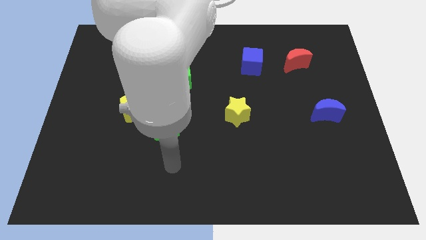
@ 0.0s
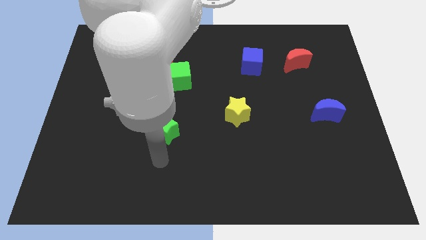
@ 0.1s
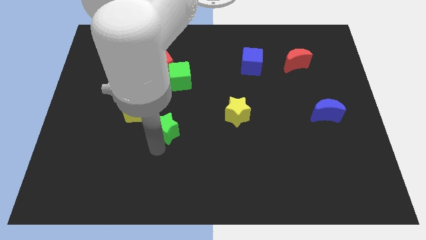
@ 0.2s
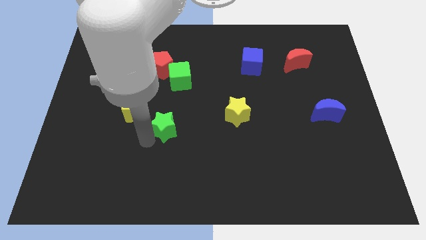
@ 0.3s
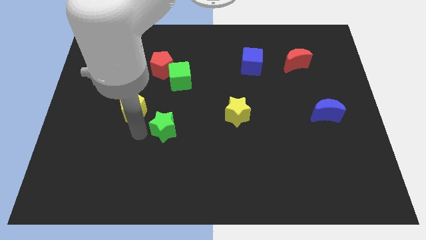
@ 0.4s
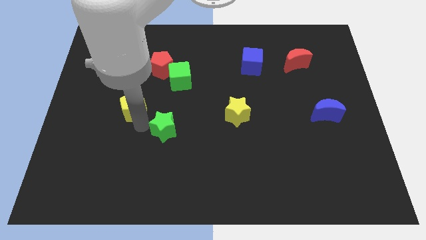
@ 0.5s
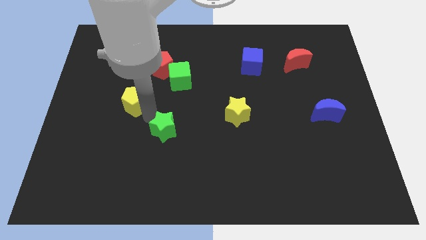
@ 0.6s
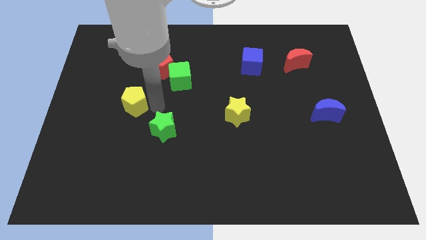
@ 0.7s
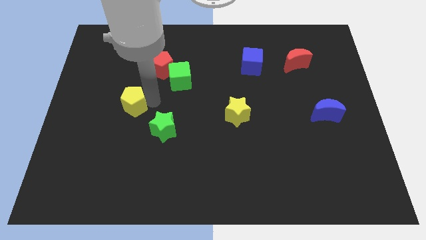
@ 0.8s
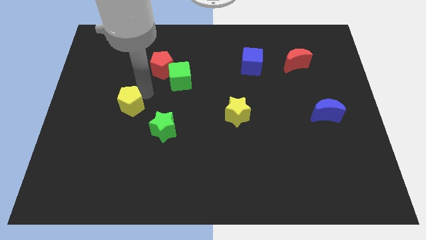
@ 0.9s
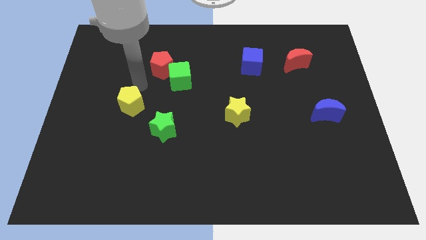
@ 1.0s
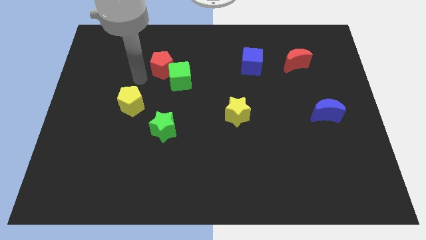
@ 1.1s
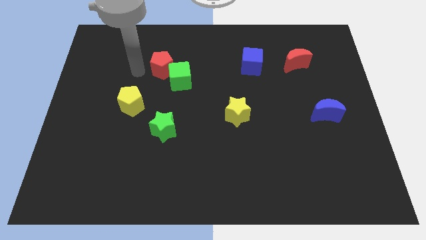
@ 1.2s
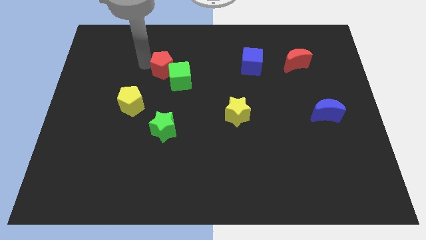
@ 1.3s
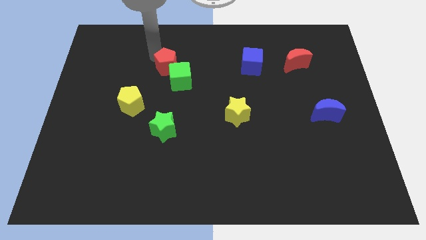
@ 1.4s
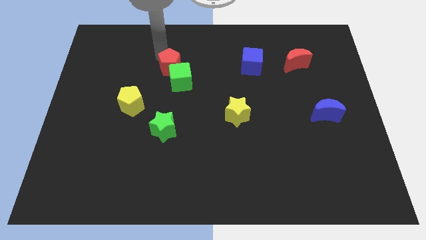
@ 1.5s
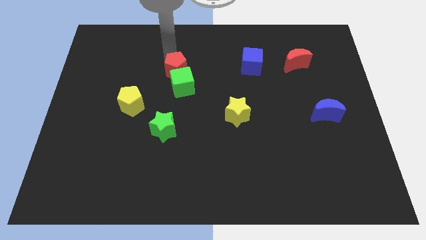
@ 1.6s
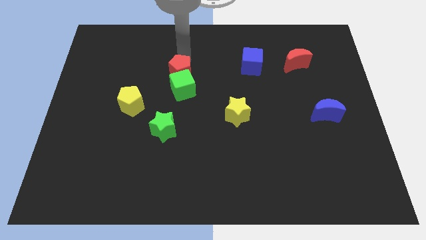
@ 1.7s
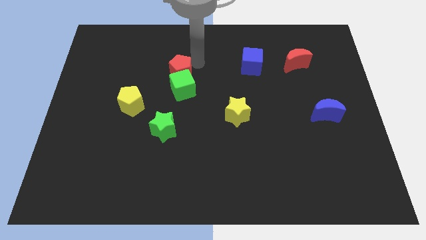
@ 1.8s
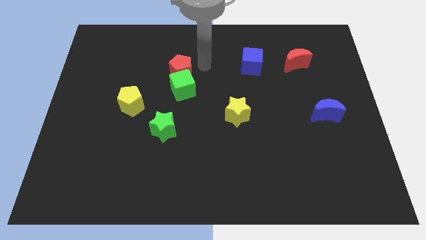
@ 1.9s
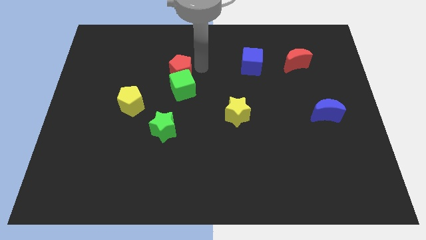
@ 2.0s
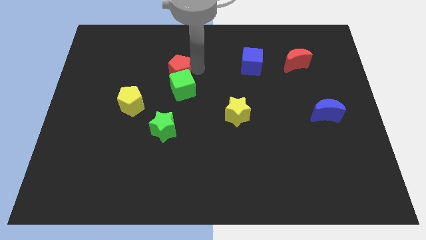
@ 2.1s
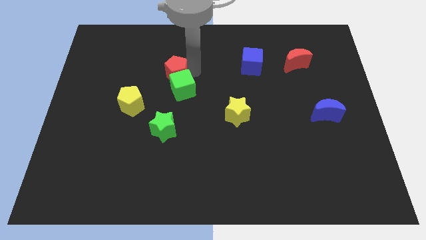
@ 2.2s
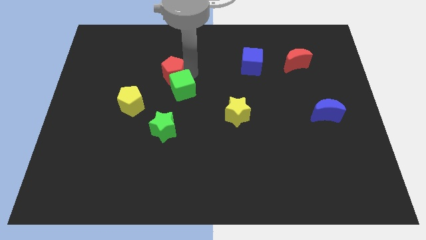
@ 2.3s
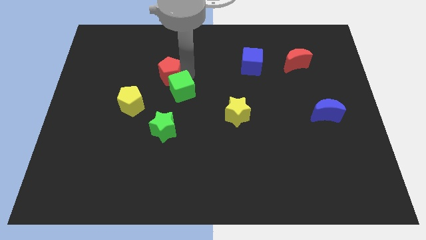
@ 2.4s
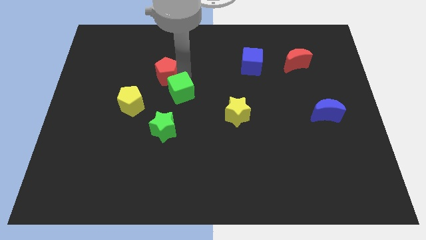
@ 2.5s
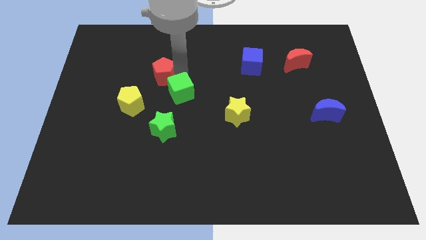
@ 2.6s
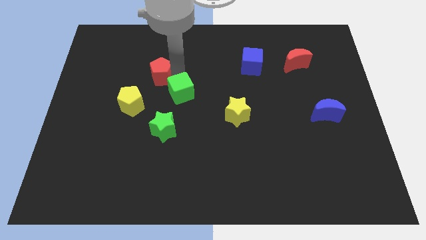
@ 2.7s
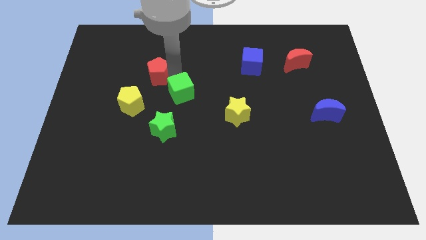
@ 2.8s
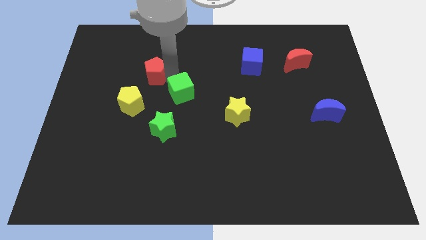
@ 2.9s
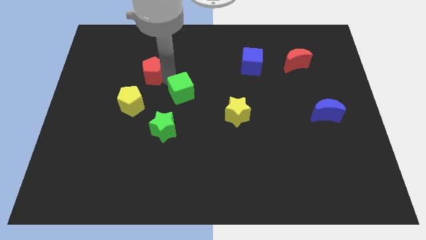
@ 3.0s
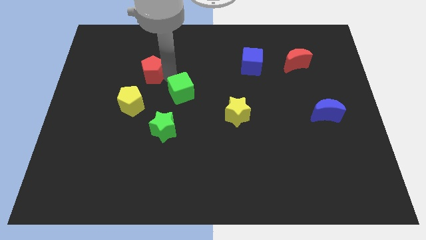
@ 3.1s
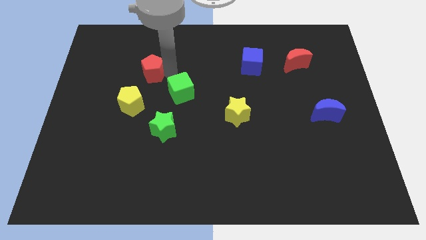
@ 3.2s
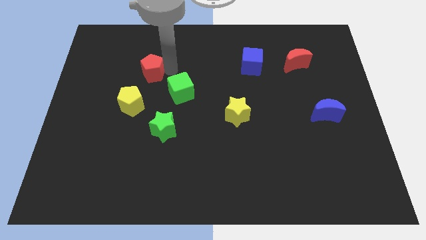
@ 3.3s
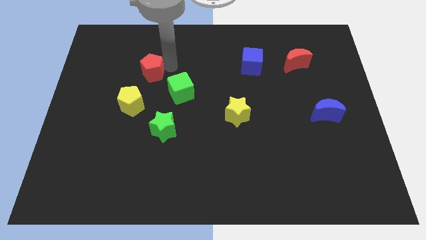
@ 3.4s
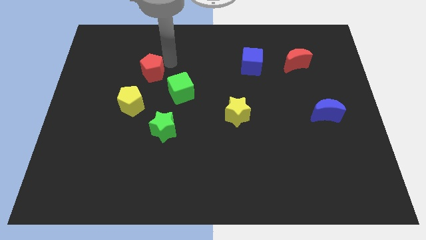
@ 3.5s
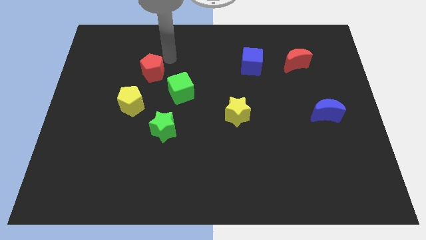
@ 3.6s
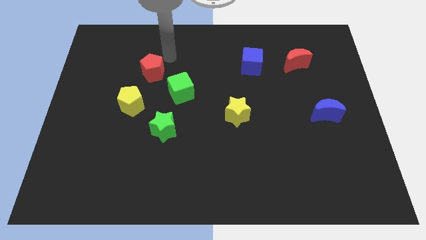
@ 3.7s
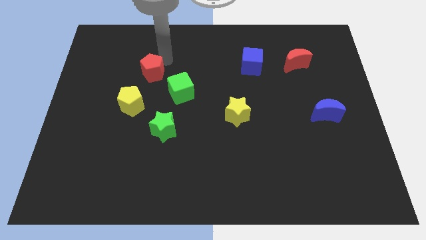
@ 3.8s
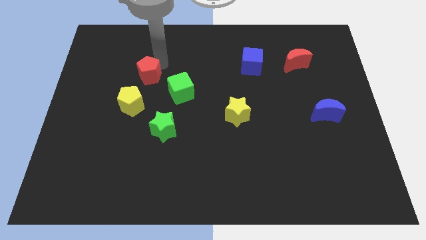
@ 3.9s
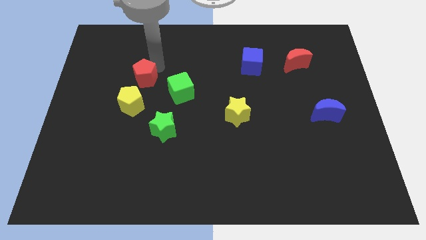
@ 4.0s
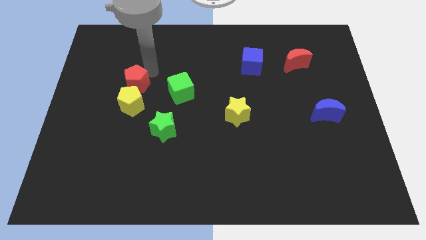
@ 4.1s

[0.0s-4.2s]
slightly slide the red pentagon down and to the left

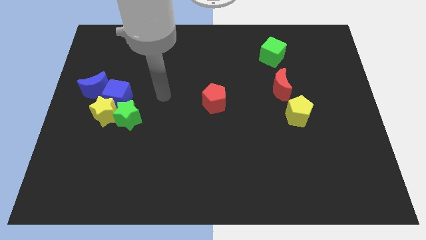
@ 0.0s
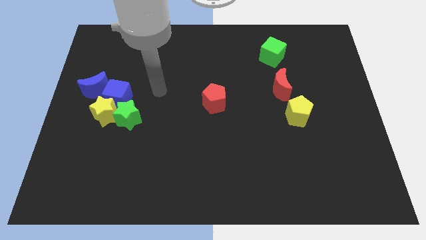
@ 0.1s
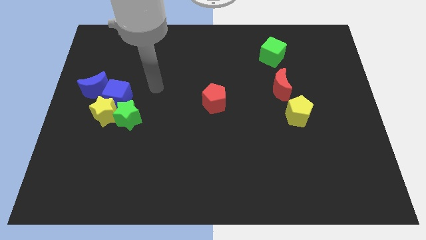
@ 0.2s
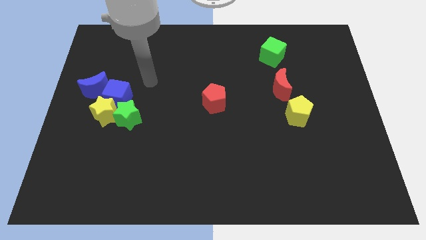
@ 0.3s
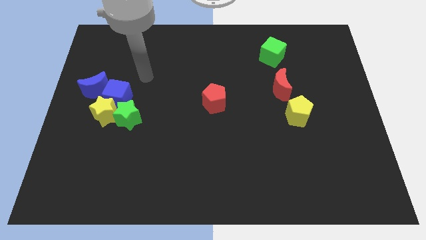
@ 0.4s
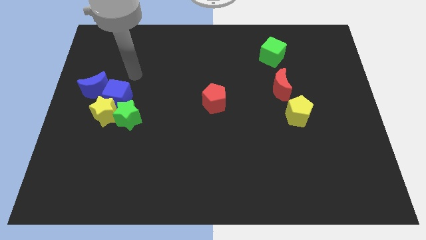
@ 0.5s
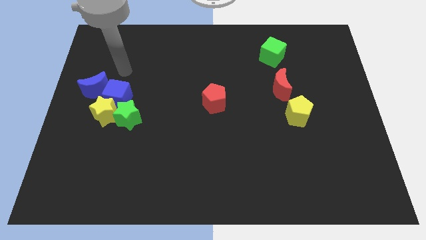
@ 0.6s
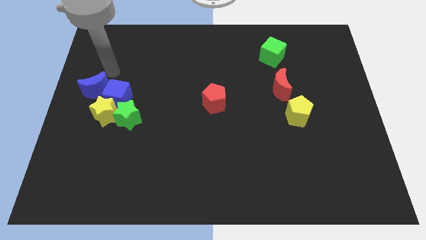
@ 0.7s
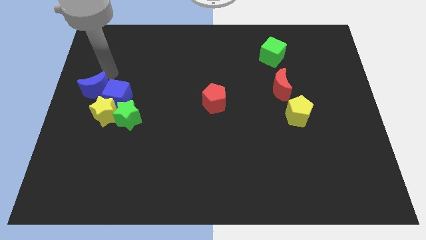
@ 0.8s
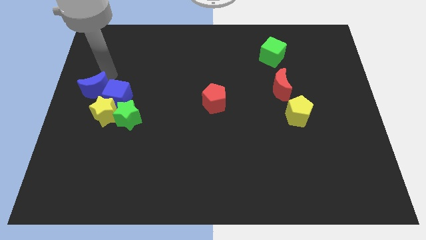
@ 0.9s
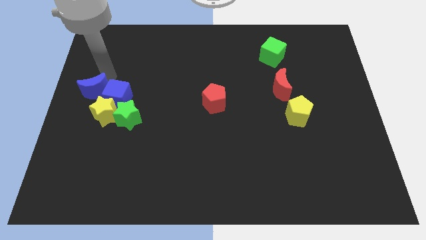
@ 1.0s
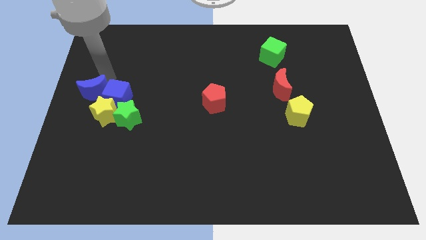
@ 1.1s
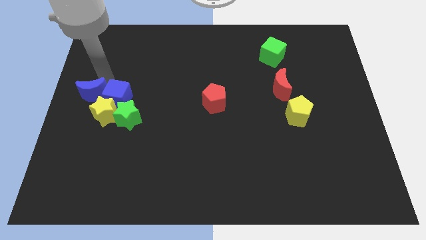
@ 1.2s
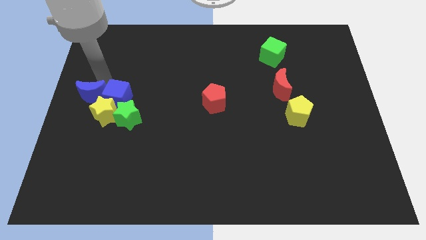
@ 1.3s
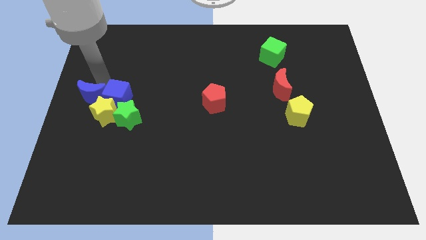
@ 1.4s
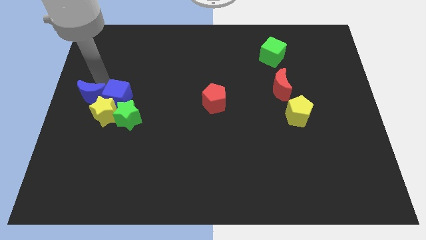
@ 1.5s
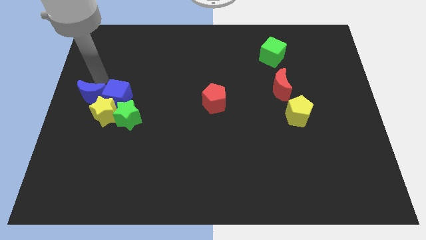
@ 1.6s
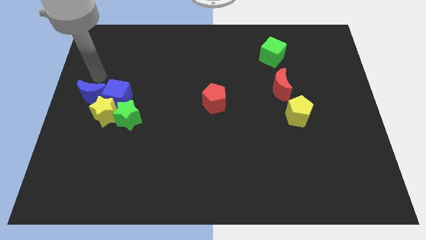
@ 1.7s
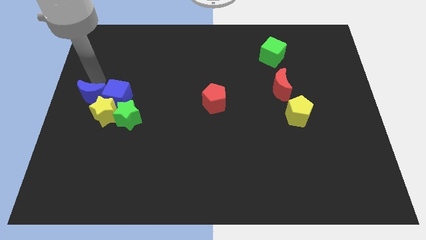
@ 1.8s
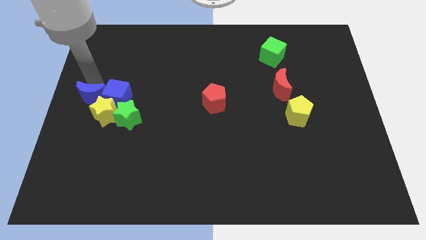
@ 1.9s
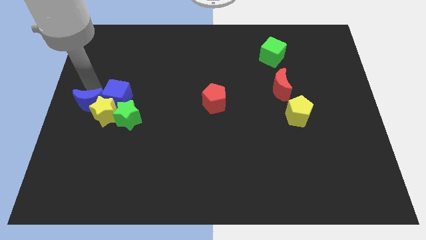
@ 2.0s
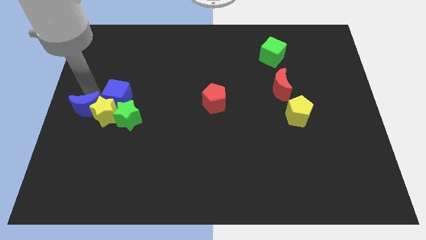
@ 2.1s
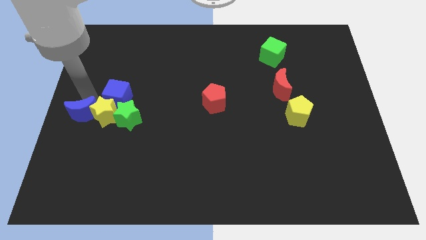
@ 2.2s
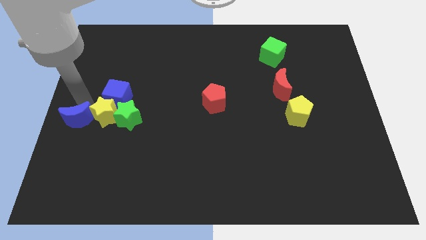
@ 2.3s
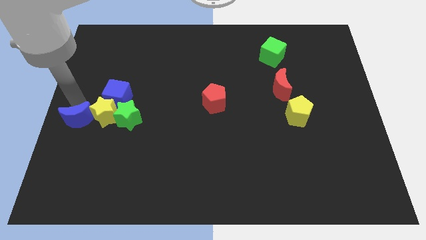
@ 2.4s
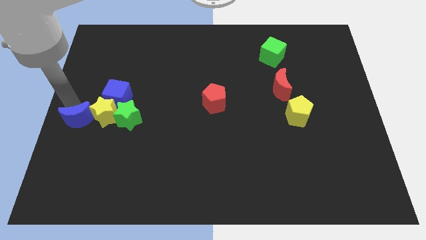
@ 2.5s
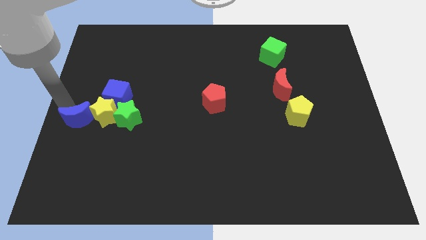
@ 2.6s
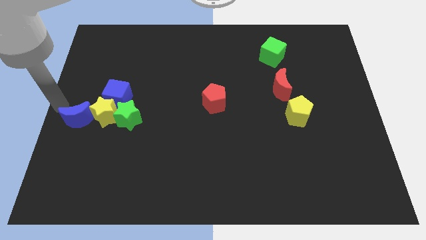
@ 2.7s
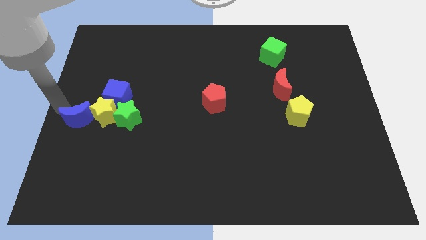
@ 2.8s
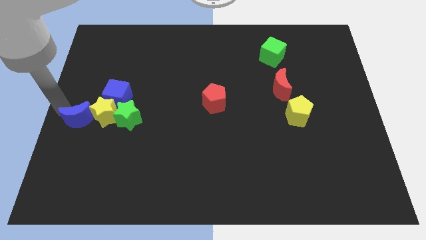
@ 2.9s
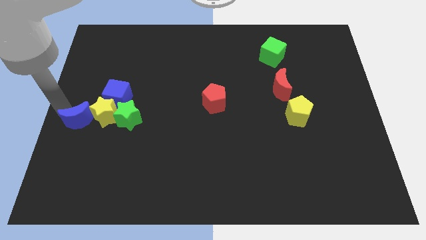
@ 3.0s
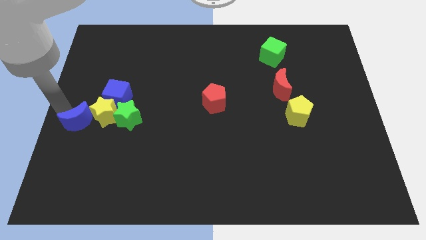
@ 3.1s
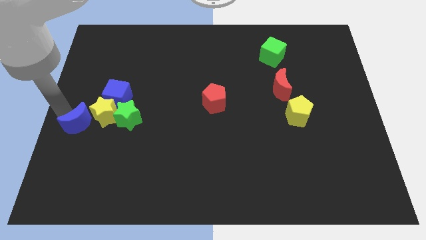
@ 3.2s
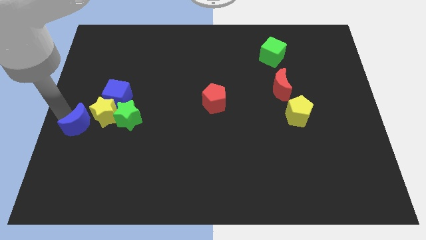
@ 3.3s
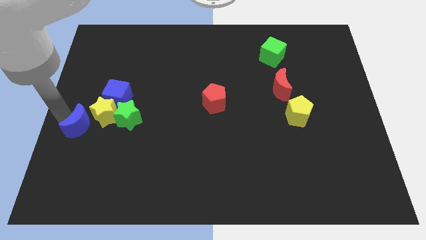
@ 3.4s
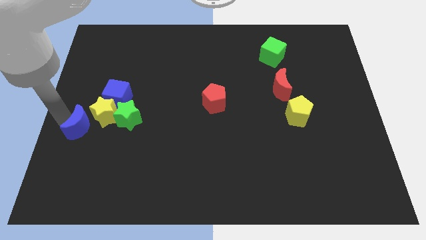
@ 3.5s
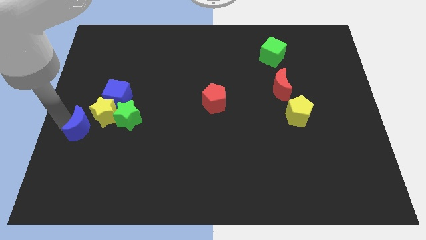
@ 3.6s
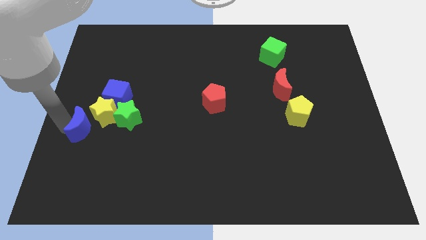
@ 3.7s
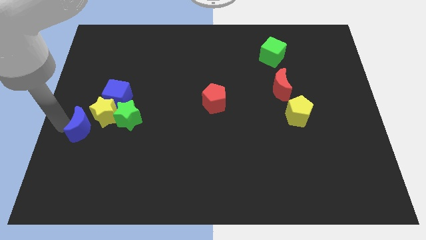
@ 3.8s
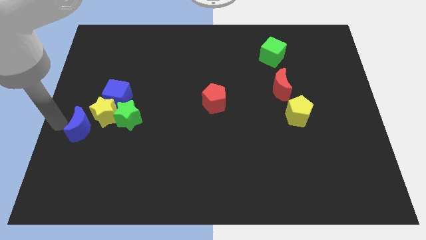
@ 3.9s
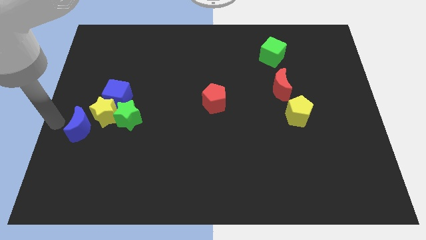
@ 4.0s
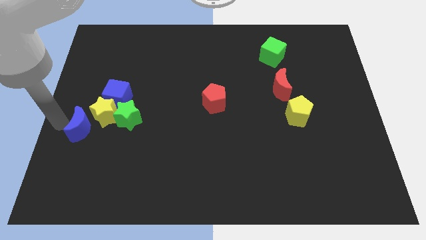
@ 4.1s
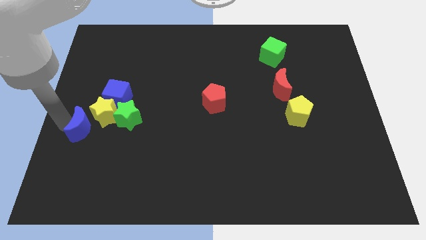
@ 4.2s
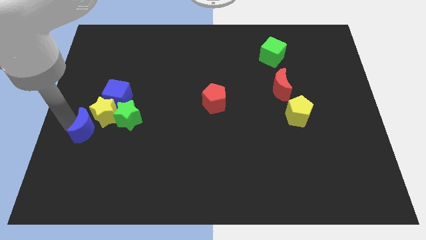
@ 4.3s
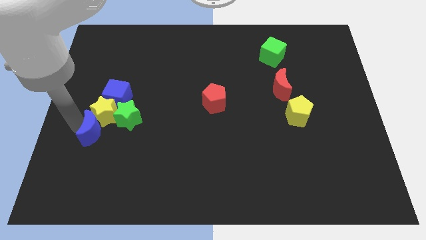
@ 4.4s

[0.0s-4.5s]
slide the blue moon down and then to the right a little
